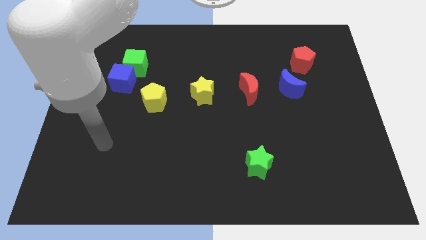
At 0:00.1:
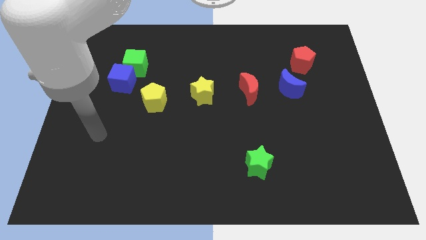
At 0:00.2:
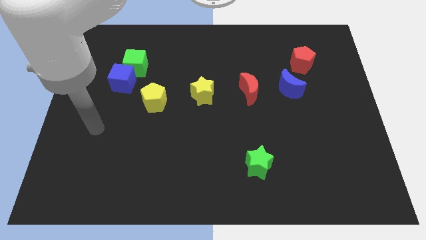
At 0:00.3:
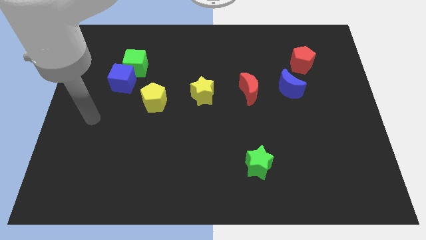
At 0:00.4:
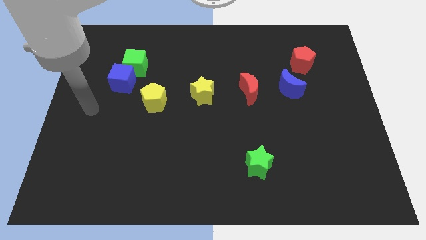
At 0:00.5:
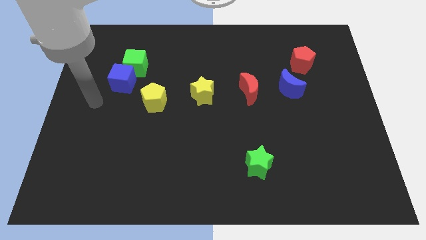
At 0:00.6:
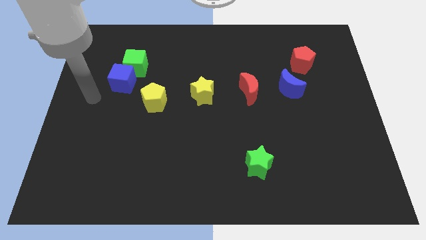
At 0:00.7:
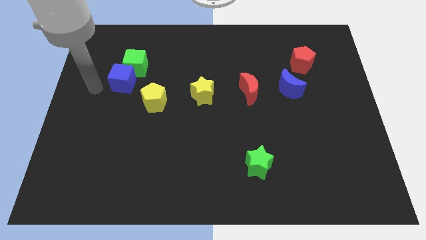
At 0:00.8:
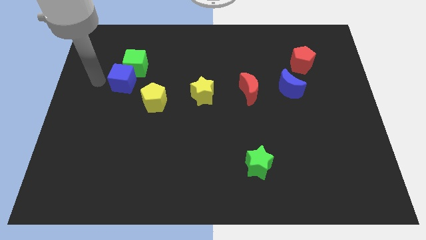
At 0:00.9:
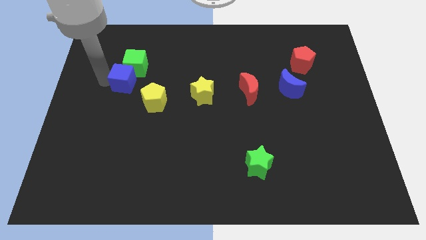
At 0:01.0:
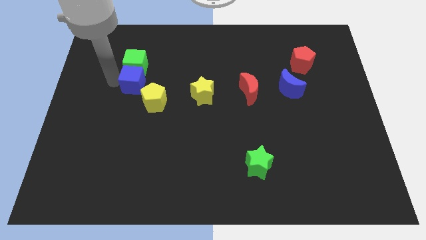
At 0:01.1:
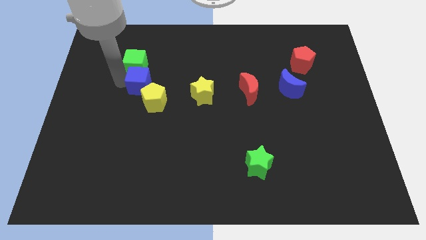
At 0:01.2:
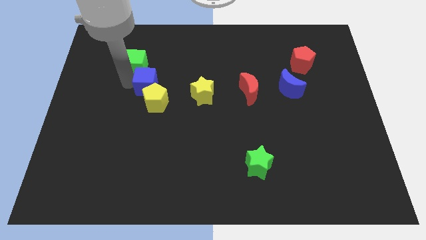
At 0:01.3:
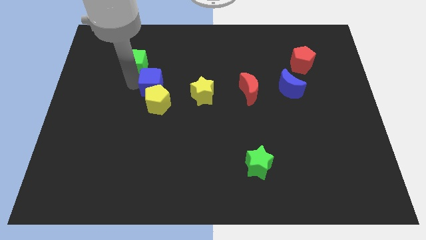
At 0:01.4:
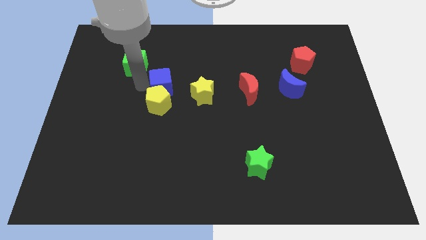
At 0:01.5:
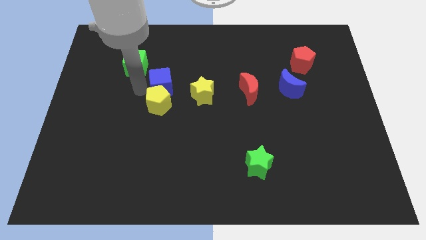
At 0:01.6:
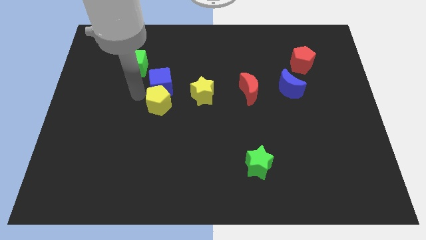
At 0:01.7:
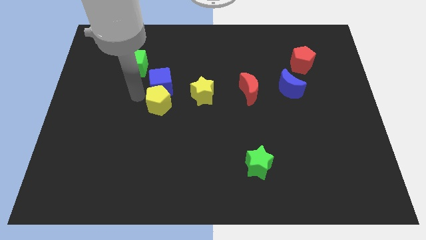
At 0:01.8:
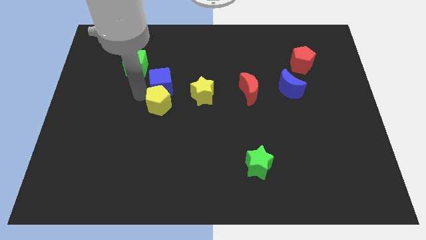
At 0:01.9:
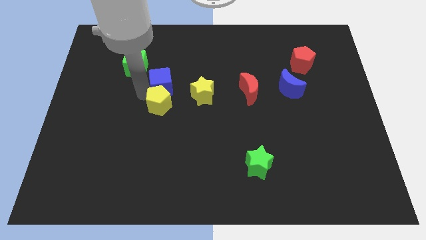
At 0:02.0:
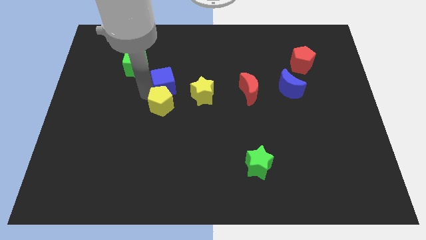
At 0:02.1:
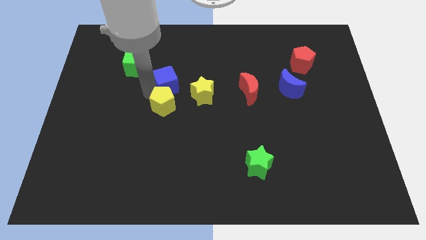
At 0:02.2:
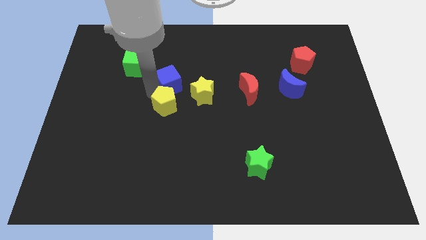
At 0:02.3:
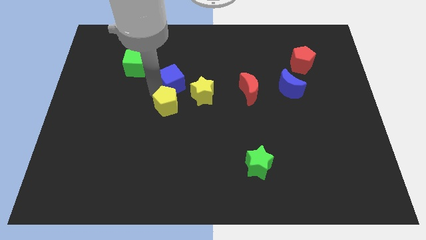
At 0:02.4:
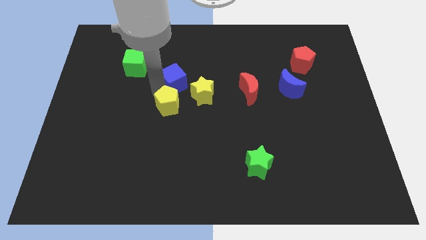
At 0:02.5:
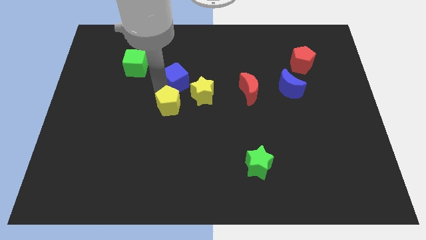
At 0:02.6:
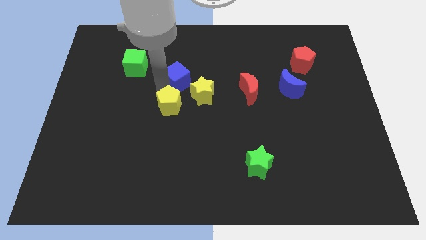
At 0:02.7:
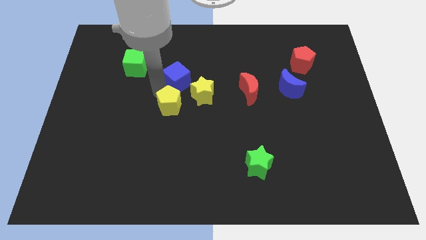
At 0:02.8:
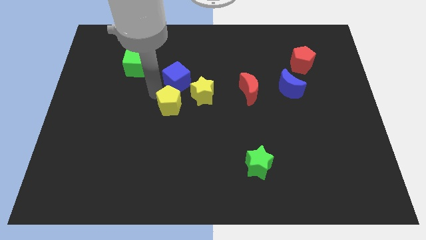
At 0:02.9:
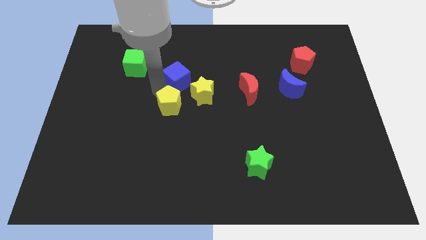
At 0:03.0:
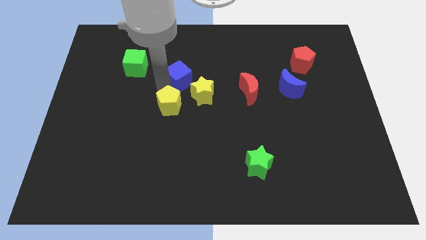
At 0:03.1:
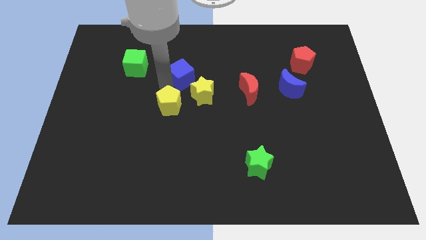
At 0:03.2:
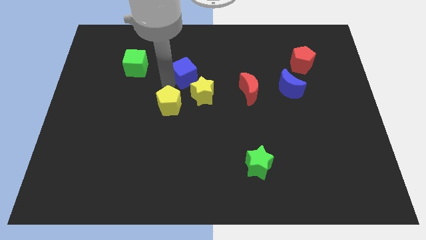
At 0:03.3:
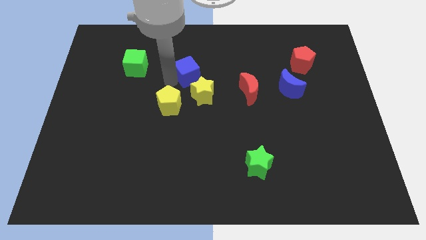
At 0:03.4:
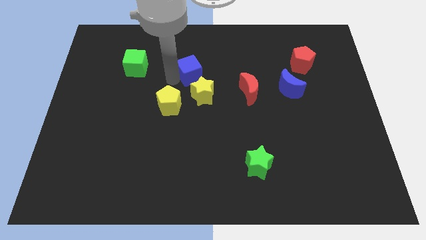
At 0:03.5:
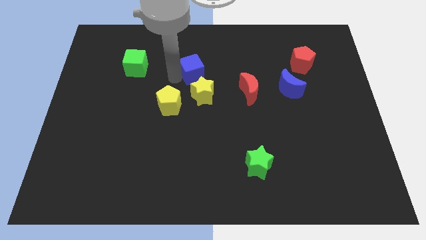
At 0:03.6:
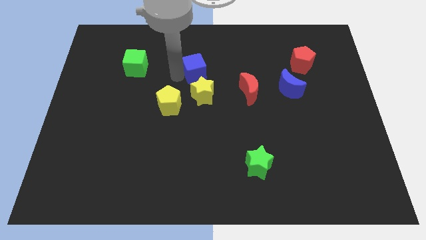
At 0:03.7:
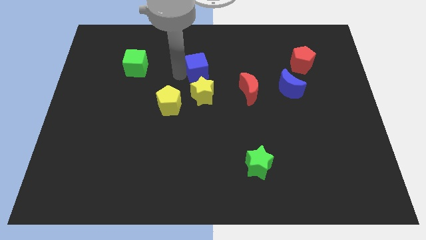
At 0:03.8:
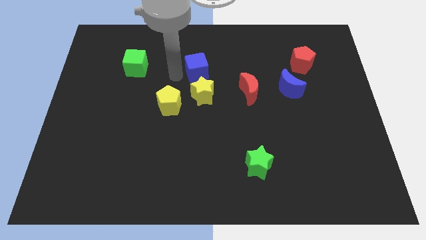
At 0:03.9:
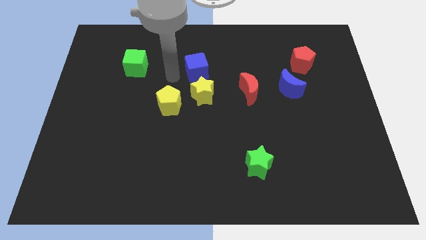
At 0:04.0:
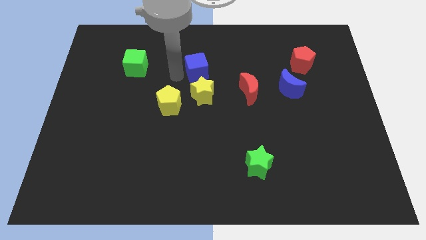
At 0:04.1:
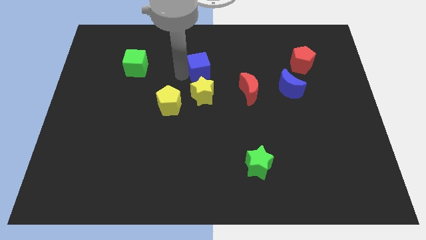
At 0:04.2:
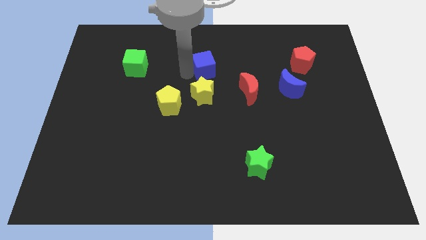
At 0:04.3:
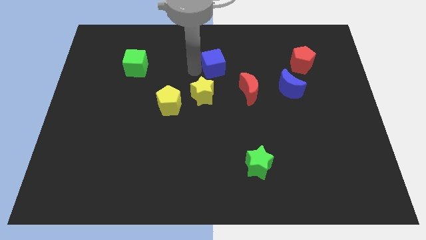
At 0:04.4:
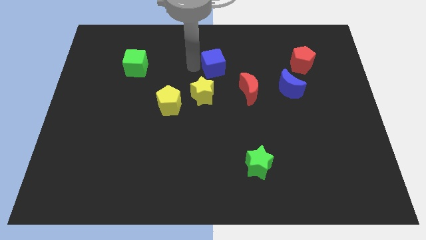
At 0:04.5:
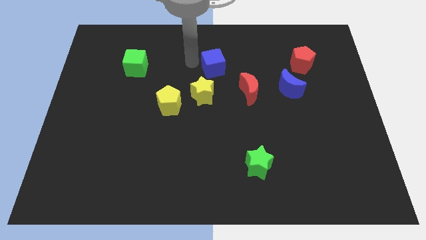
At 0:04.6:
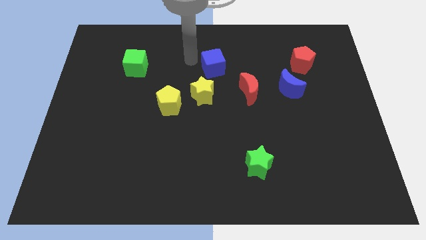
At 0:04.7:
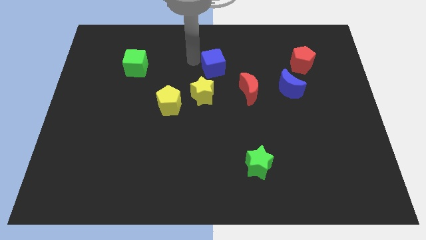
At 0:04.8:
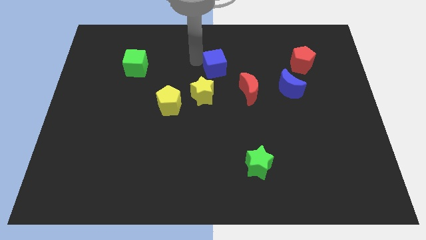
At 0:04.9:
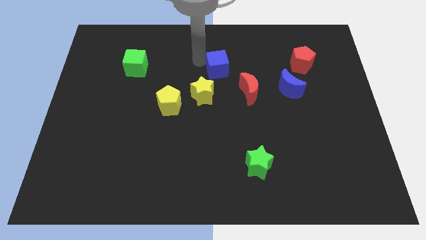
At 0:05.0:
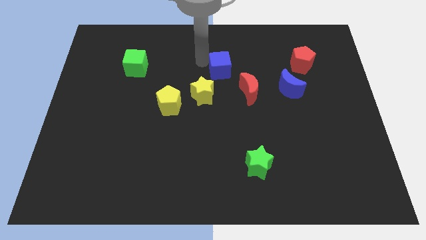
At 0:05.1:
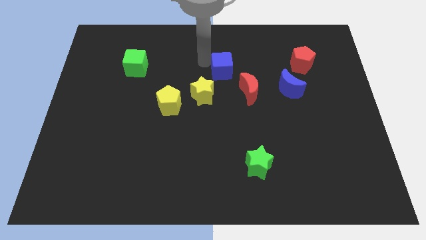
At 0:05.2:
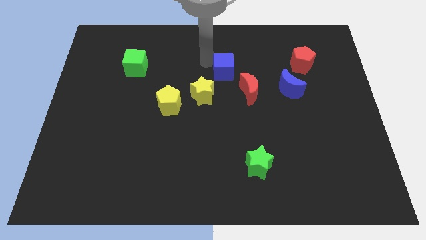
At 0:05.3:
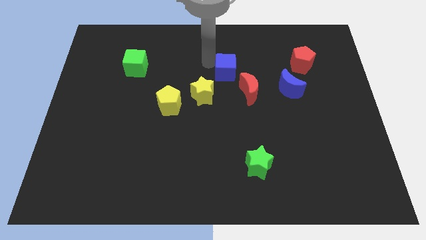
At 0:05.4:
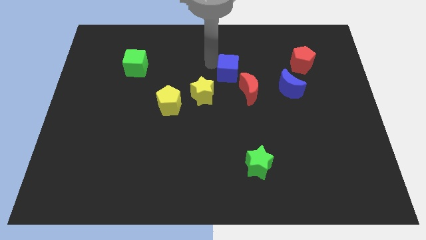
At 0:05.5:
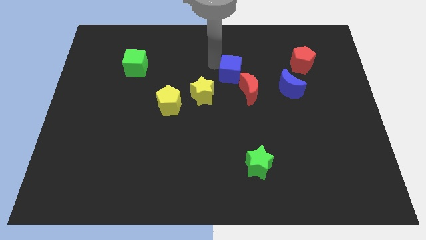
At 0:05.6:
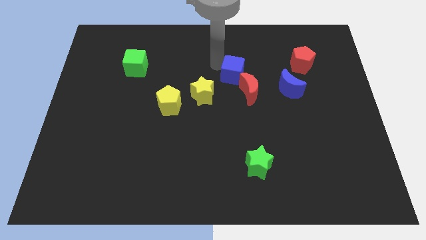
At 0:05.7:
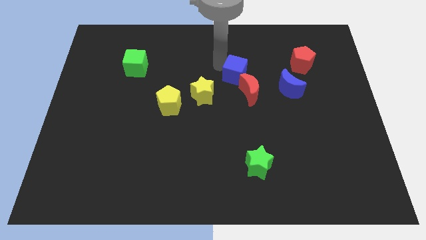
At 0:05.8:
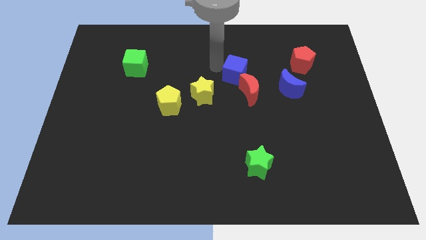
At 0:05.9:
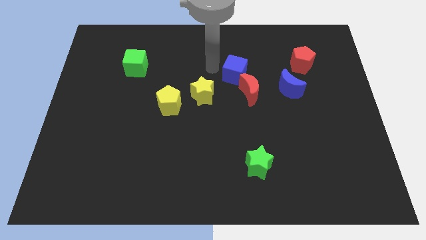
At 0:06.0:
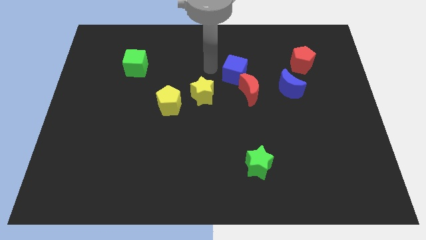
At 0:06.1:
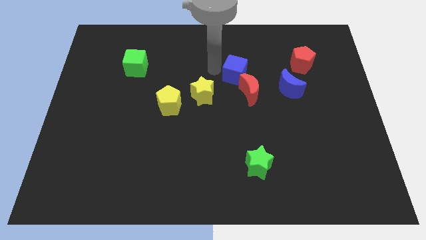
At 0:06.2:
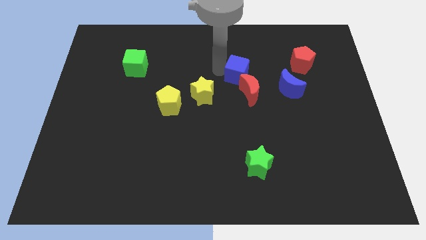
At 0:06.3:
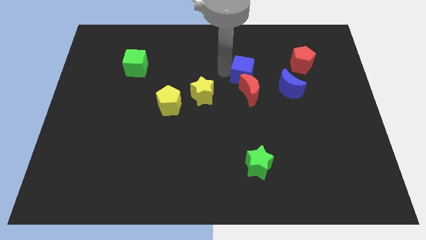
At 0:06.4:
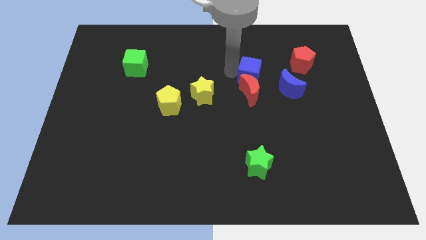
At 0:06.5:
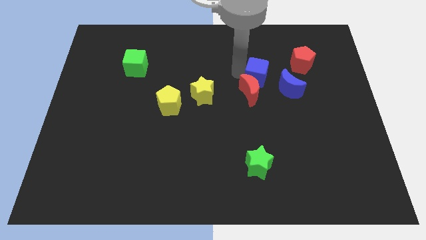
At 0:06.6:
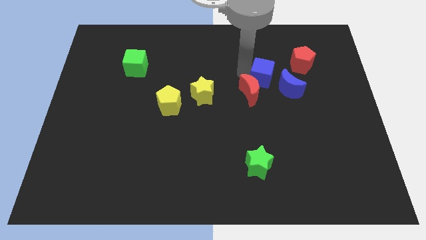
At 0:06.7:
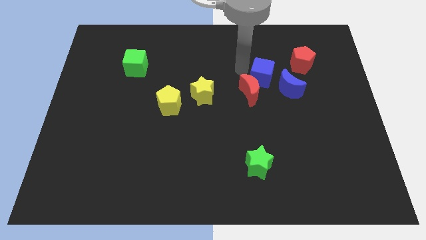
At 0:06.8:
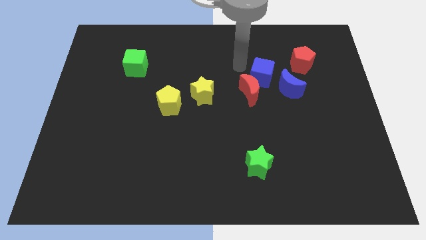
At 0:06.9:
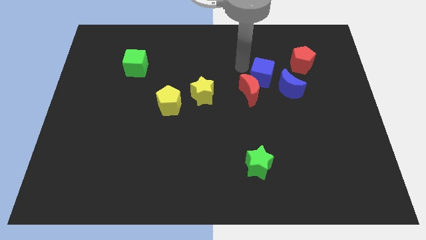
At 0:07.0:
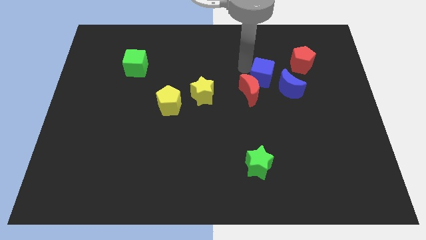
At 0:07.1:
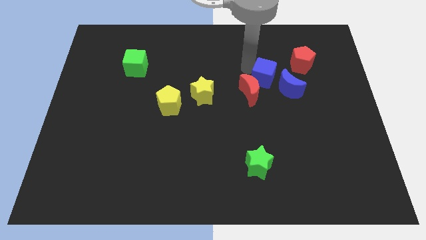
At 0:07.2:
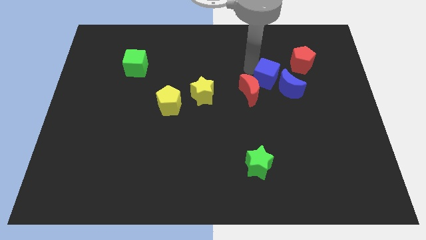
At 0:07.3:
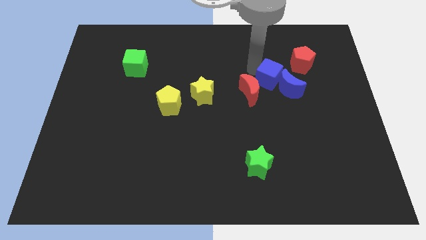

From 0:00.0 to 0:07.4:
slide the blue cube towards the blue moon
